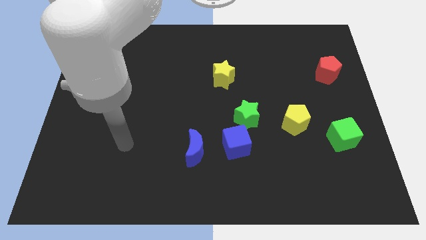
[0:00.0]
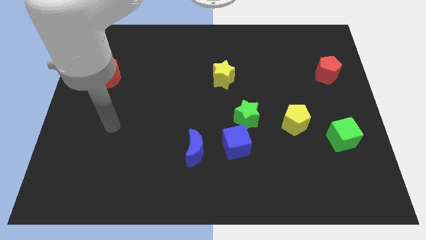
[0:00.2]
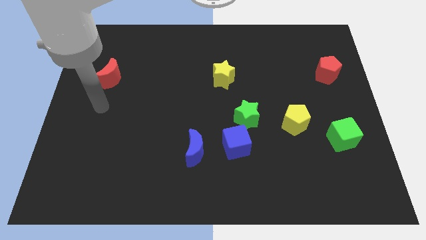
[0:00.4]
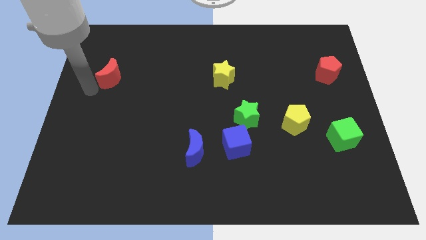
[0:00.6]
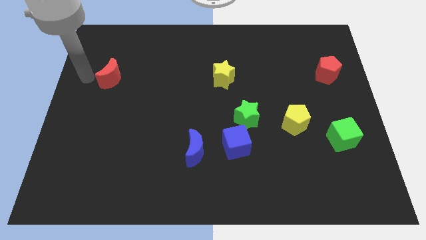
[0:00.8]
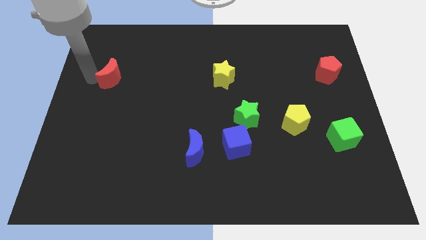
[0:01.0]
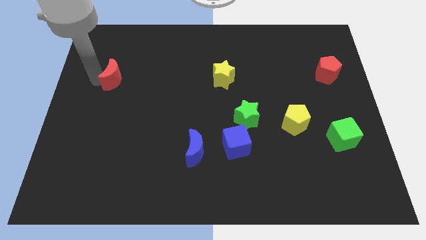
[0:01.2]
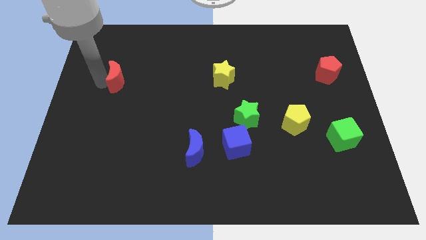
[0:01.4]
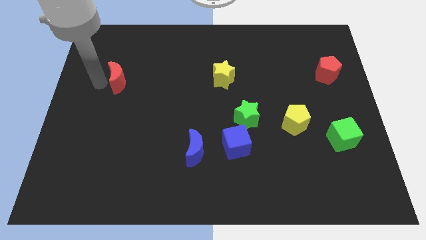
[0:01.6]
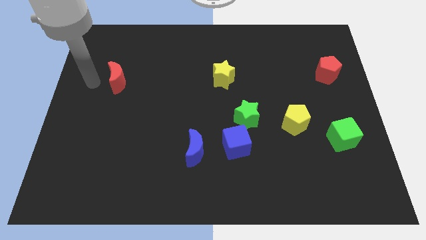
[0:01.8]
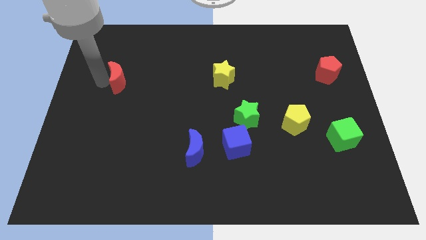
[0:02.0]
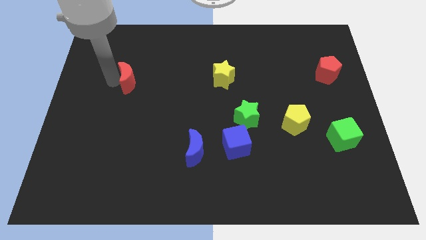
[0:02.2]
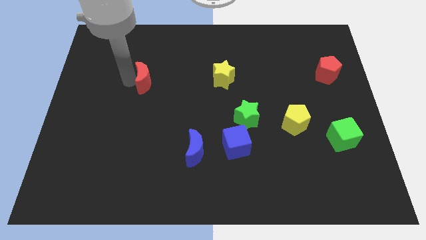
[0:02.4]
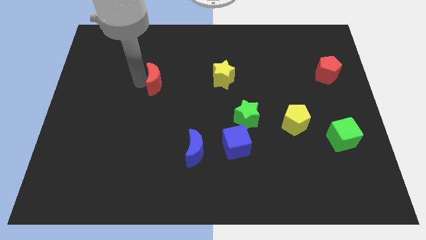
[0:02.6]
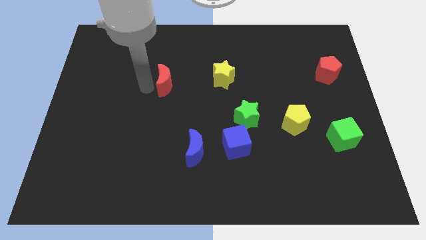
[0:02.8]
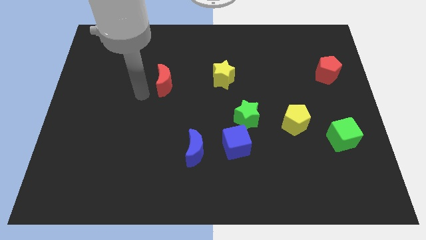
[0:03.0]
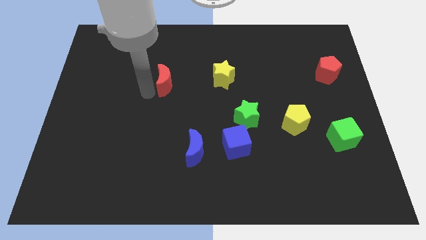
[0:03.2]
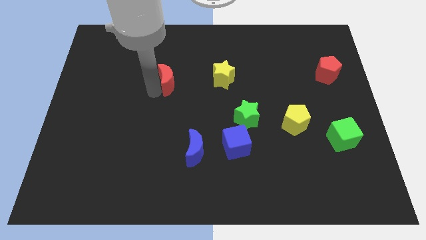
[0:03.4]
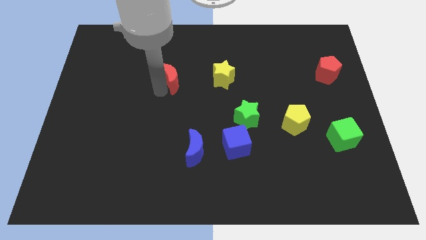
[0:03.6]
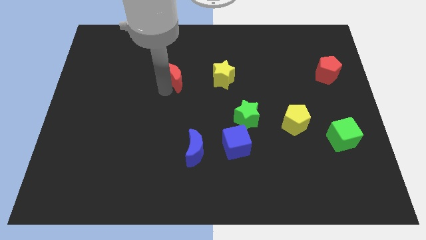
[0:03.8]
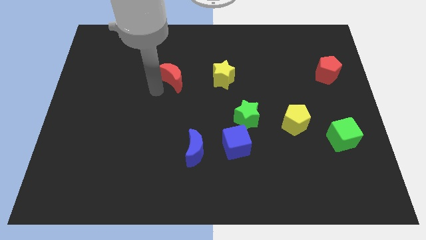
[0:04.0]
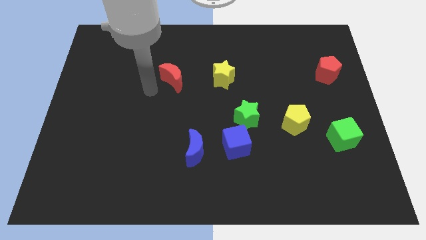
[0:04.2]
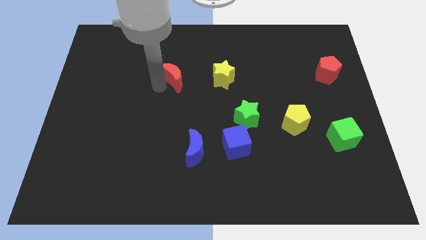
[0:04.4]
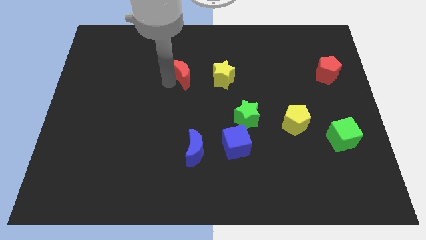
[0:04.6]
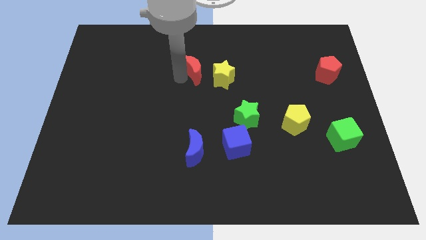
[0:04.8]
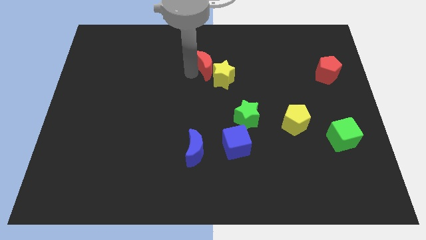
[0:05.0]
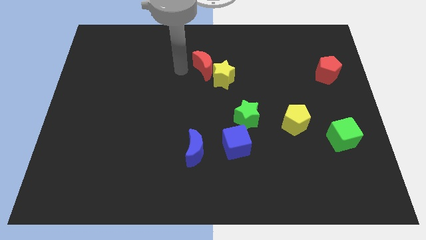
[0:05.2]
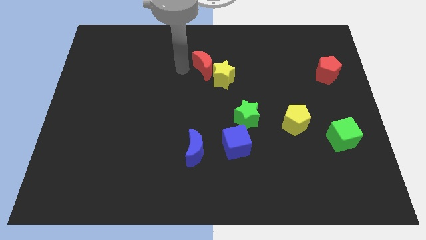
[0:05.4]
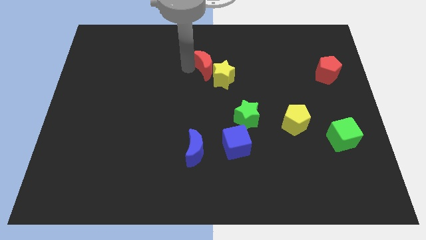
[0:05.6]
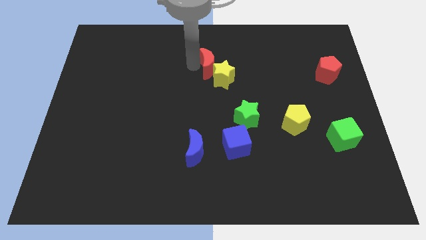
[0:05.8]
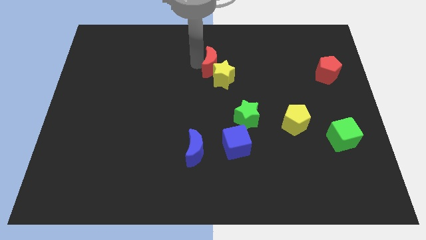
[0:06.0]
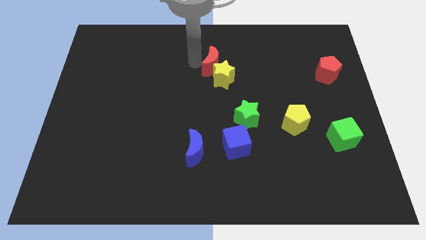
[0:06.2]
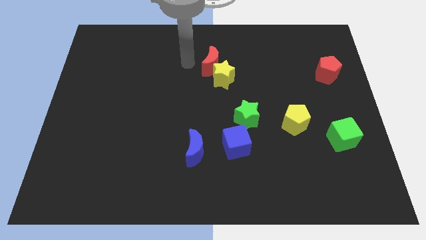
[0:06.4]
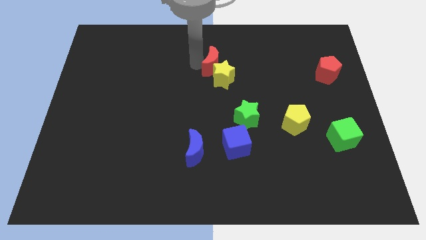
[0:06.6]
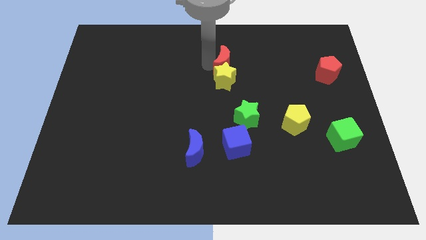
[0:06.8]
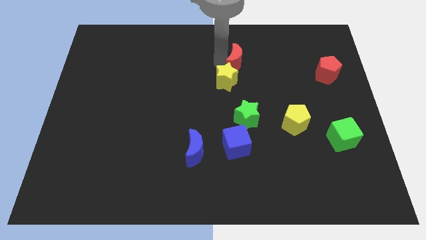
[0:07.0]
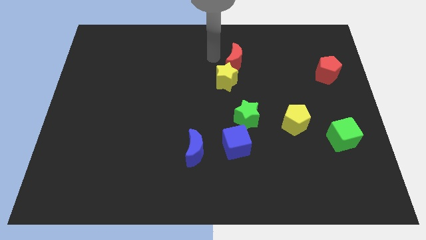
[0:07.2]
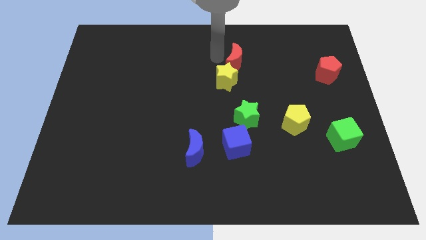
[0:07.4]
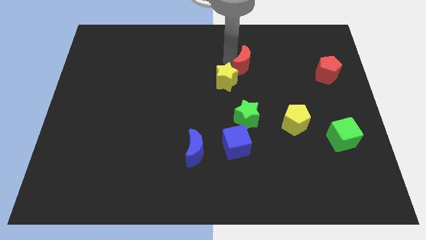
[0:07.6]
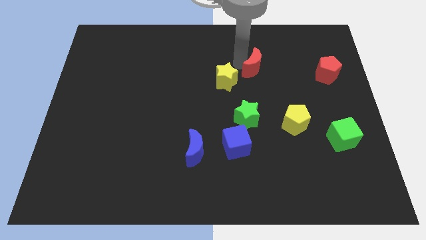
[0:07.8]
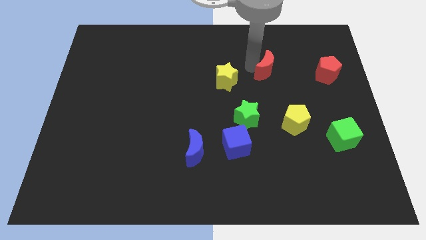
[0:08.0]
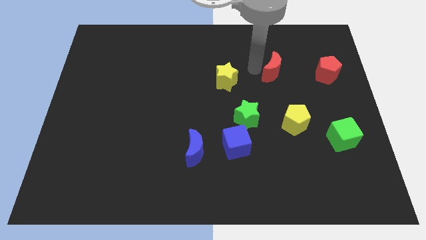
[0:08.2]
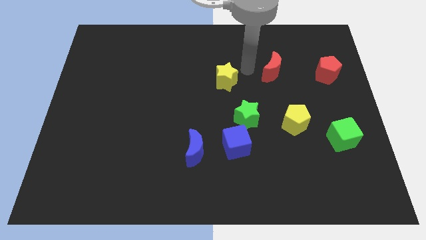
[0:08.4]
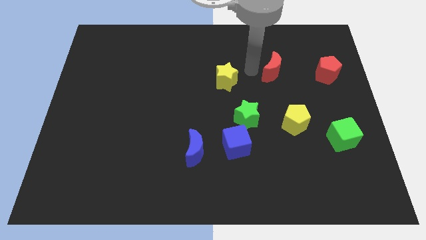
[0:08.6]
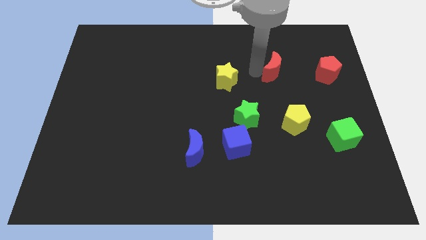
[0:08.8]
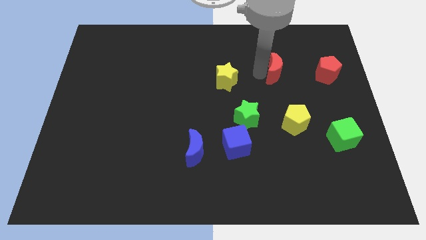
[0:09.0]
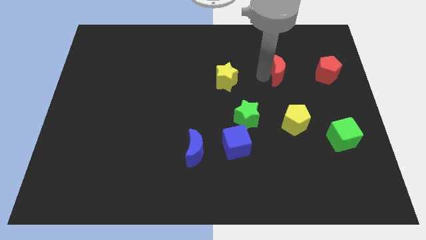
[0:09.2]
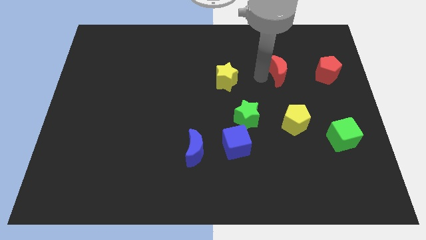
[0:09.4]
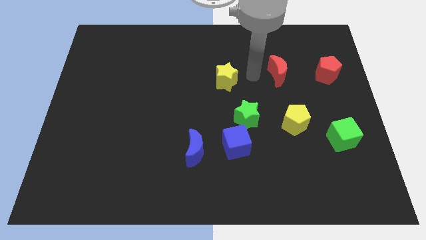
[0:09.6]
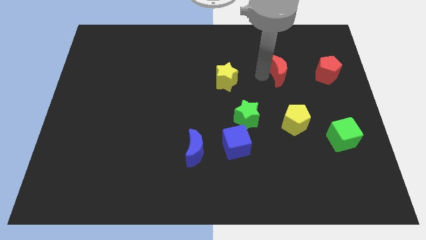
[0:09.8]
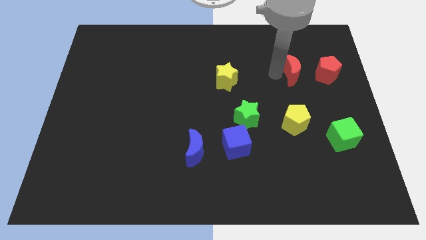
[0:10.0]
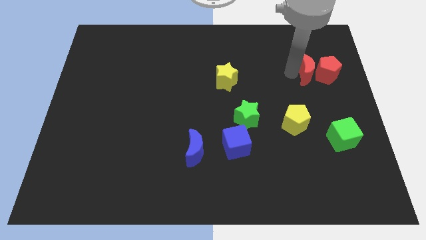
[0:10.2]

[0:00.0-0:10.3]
slide the red moon close to the red pentagon

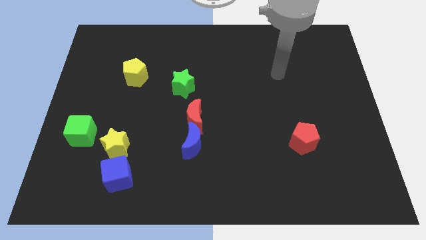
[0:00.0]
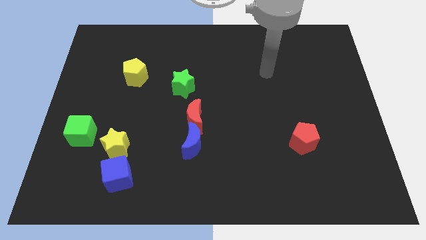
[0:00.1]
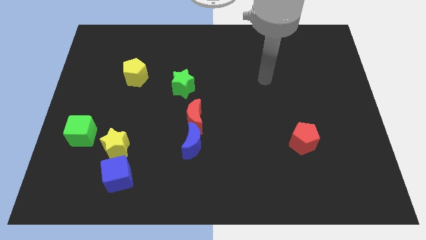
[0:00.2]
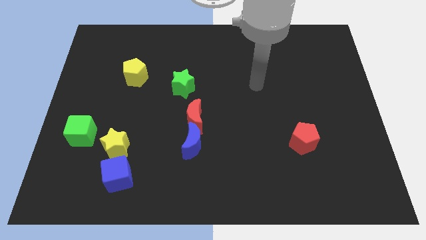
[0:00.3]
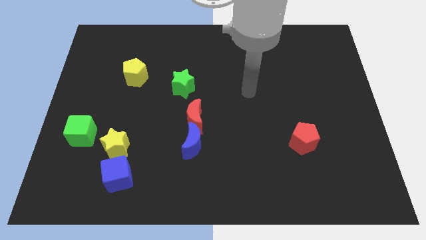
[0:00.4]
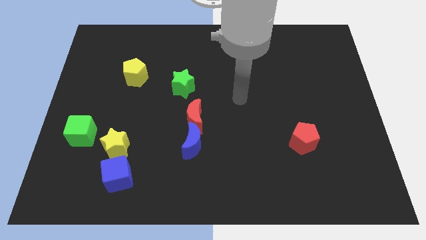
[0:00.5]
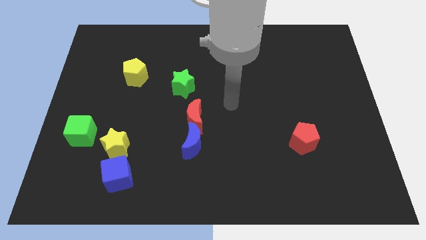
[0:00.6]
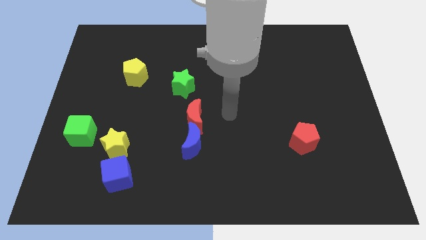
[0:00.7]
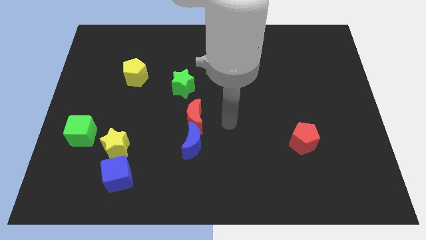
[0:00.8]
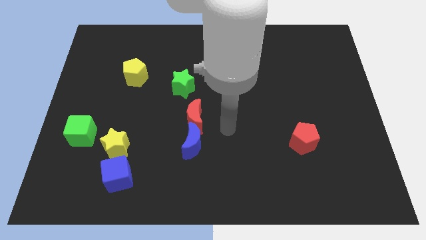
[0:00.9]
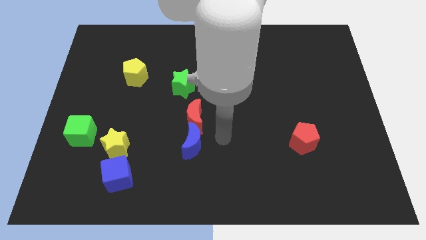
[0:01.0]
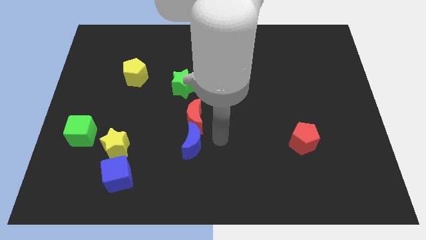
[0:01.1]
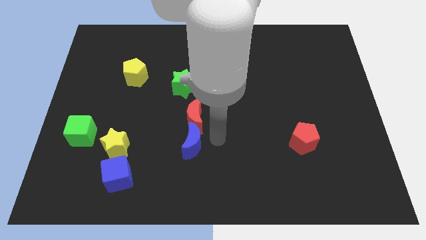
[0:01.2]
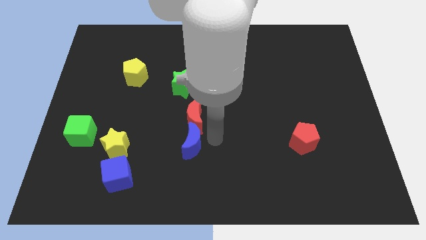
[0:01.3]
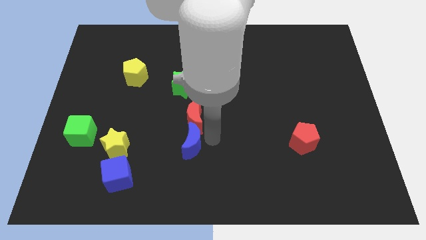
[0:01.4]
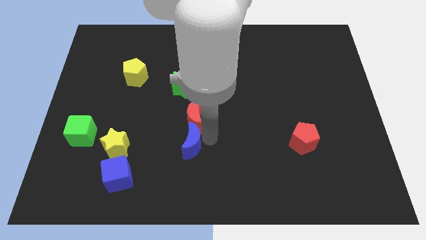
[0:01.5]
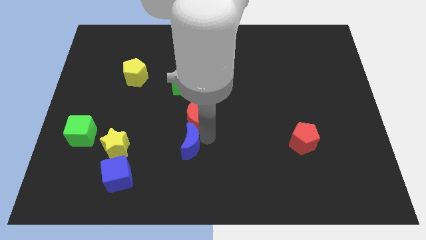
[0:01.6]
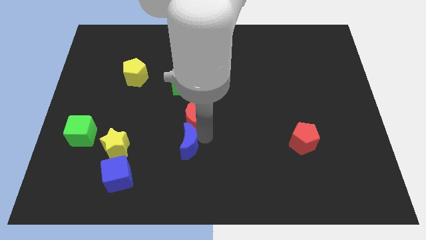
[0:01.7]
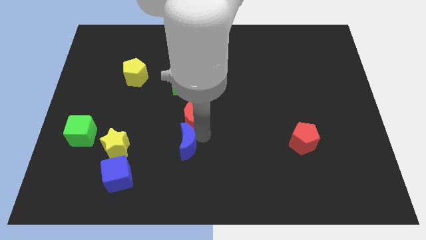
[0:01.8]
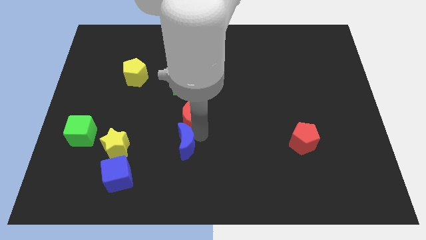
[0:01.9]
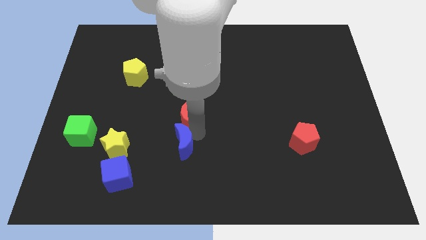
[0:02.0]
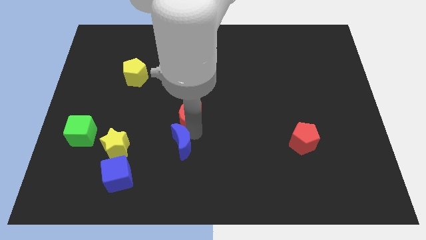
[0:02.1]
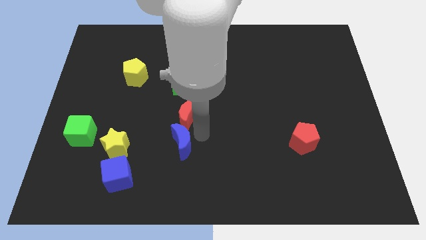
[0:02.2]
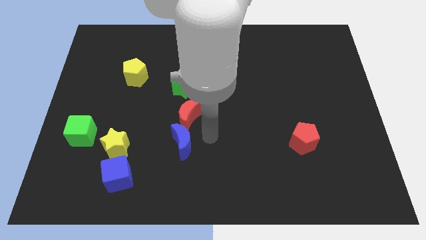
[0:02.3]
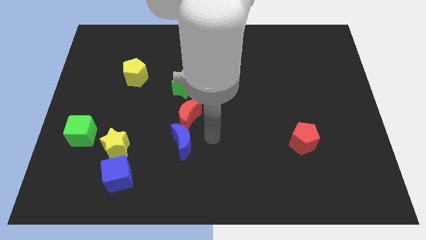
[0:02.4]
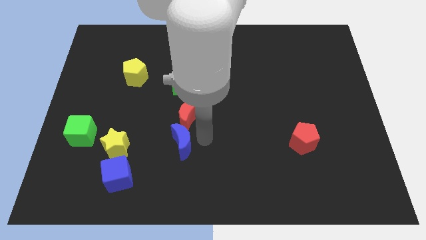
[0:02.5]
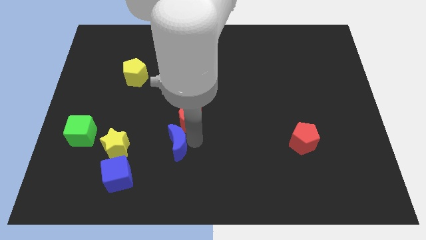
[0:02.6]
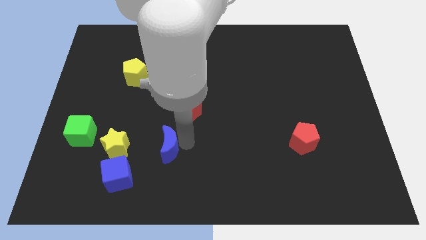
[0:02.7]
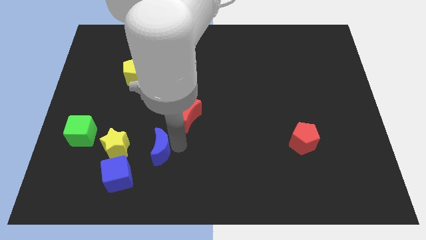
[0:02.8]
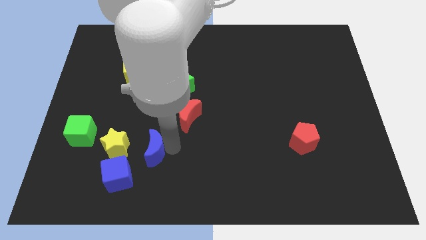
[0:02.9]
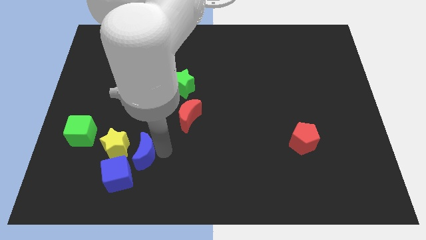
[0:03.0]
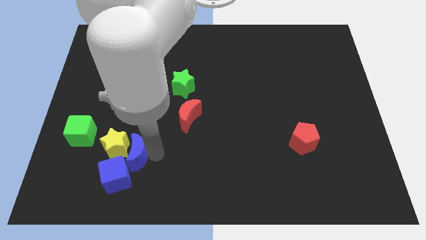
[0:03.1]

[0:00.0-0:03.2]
put the blue moon close to the yellow star
